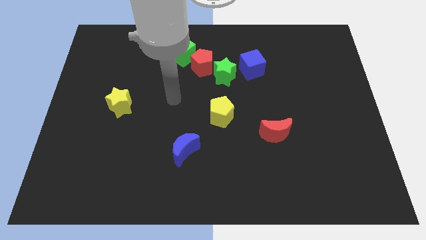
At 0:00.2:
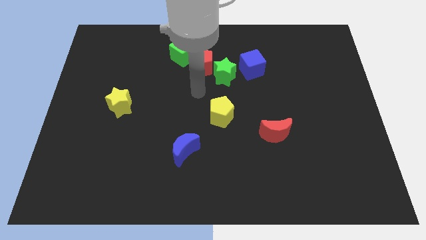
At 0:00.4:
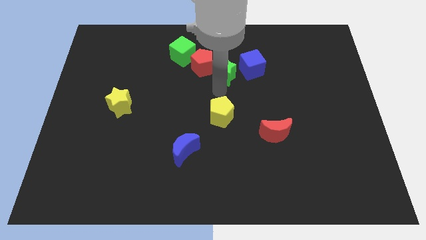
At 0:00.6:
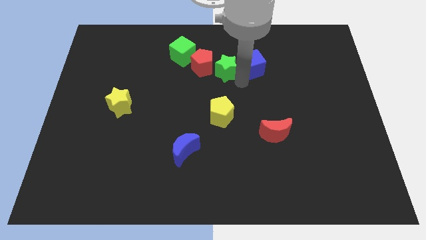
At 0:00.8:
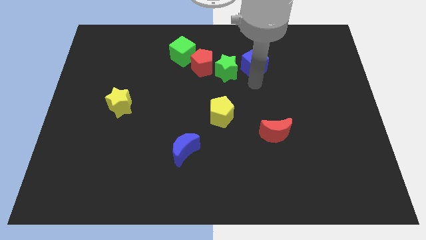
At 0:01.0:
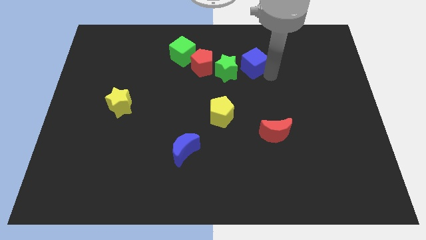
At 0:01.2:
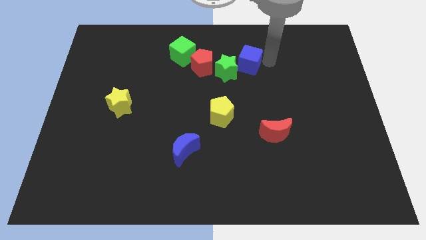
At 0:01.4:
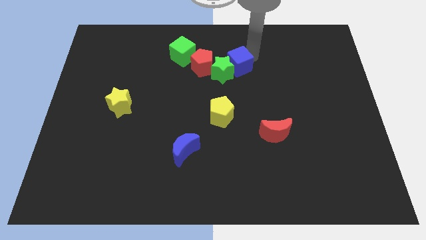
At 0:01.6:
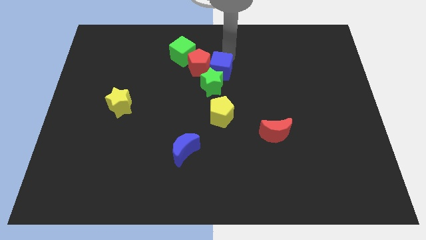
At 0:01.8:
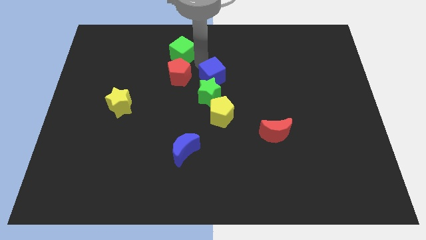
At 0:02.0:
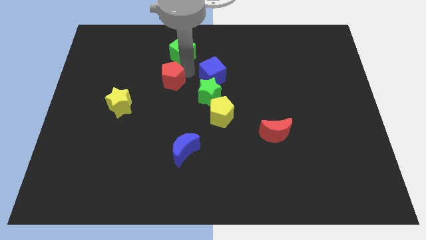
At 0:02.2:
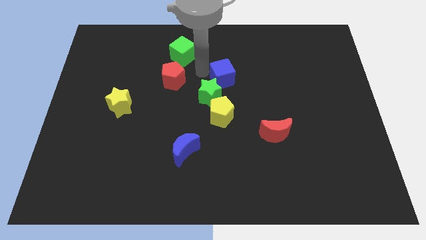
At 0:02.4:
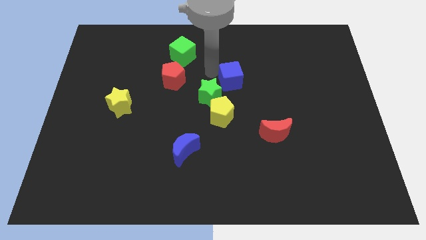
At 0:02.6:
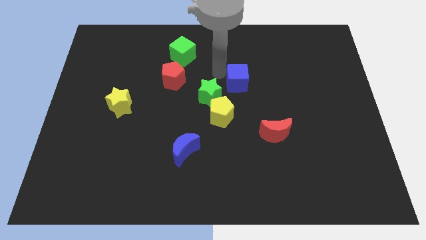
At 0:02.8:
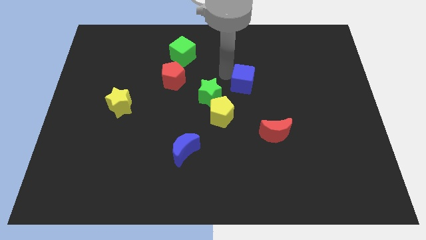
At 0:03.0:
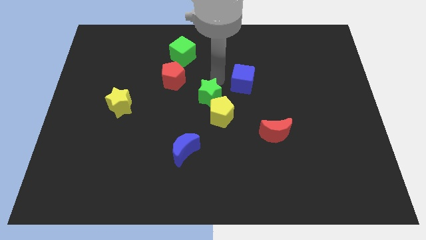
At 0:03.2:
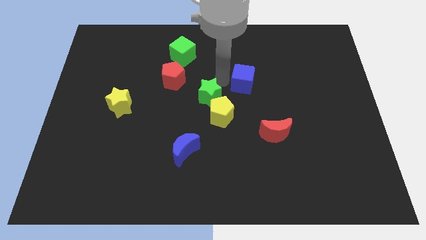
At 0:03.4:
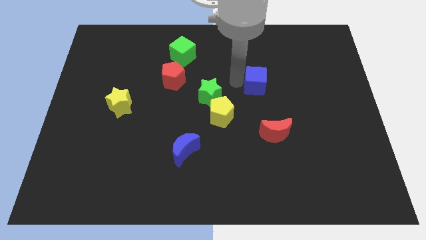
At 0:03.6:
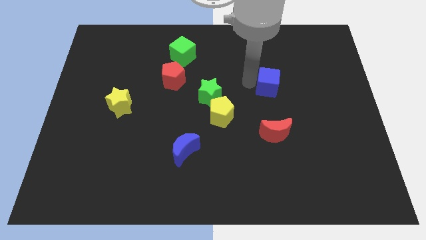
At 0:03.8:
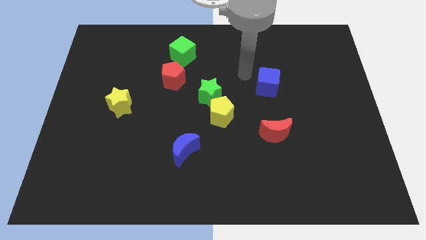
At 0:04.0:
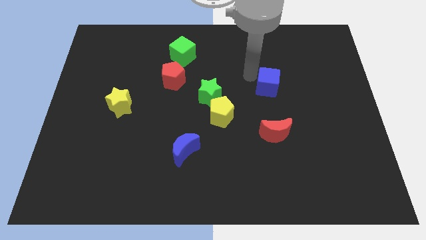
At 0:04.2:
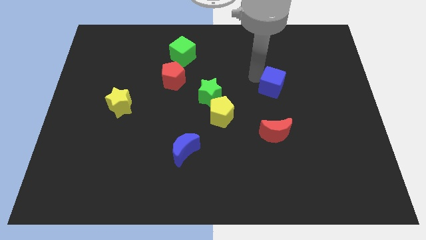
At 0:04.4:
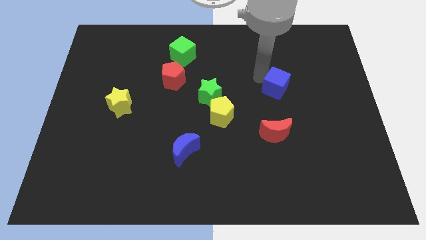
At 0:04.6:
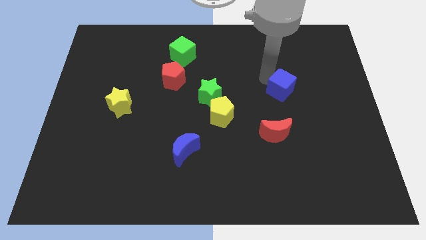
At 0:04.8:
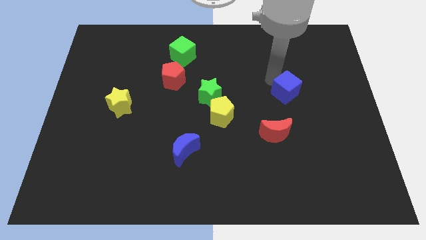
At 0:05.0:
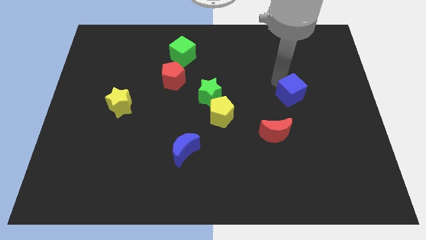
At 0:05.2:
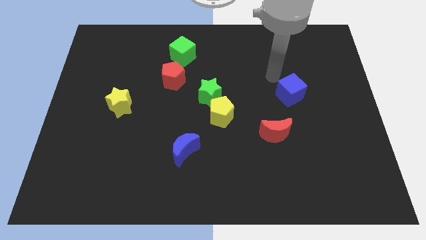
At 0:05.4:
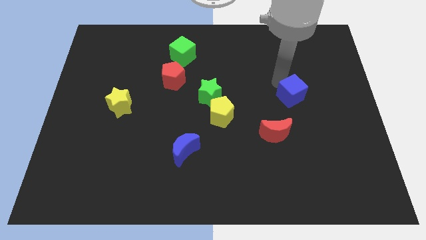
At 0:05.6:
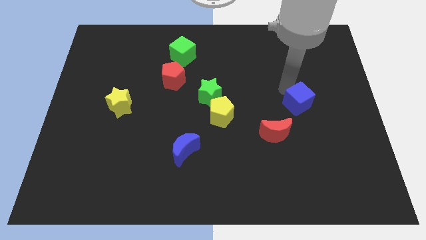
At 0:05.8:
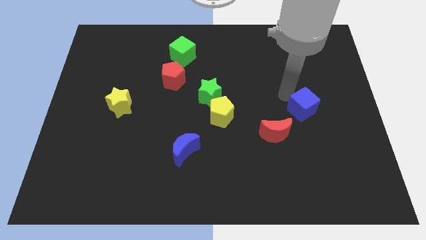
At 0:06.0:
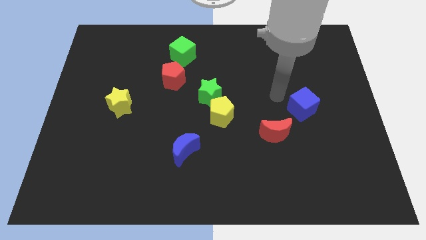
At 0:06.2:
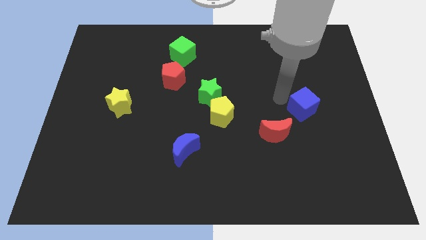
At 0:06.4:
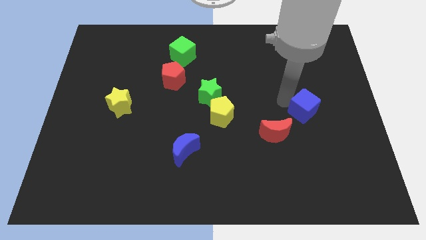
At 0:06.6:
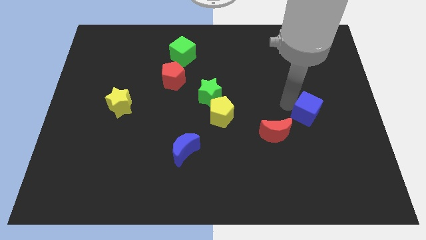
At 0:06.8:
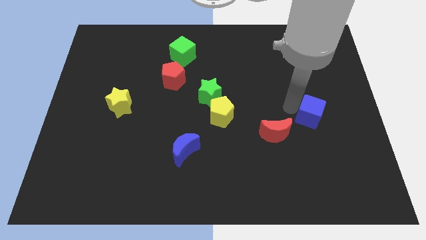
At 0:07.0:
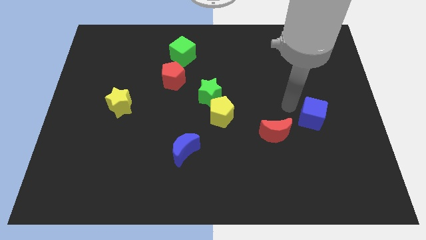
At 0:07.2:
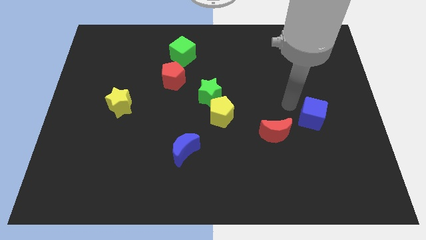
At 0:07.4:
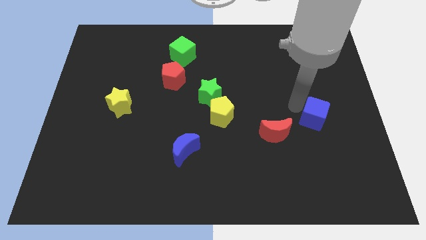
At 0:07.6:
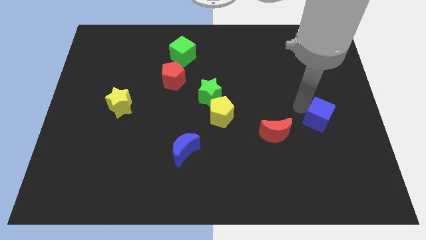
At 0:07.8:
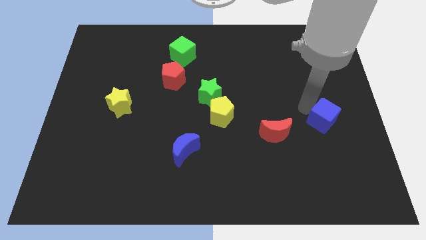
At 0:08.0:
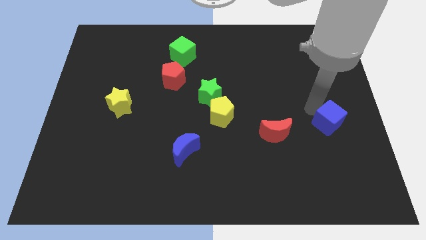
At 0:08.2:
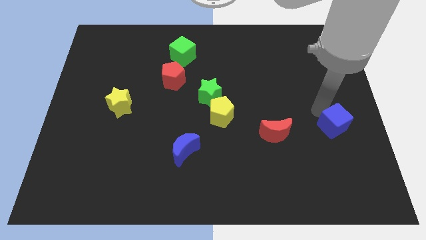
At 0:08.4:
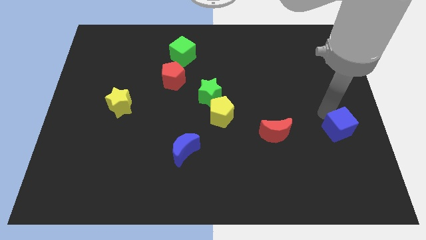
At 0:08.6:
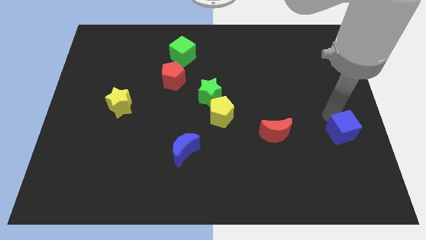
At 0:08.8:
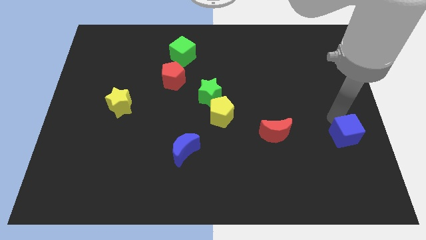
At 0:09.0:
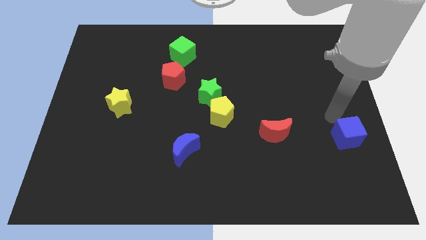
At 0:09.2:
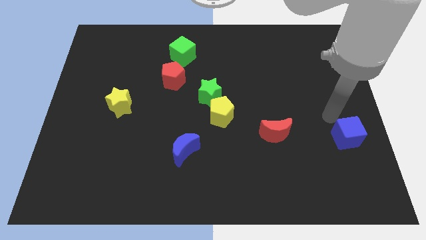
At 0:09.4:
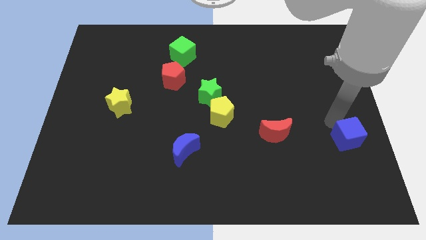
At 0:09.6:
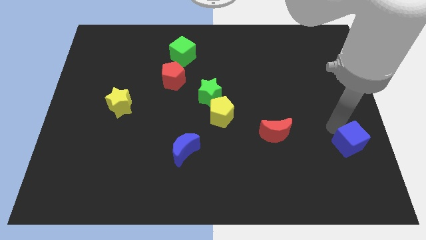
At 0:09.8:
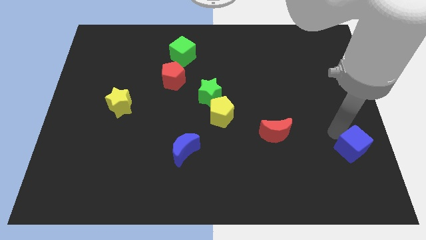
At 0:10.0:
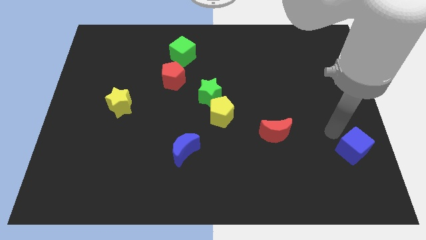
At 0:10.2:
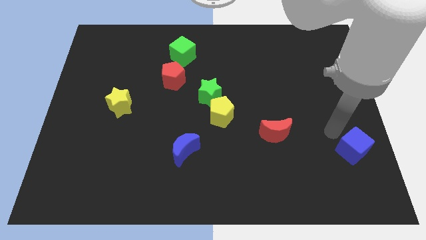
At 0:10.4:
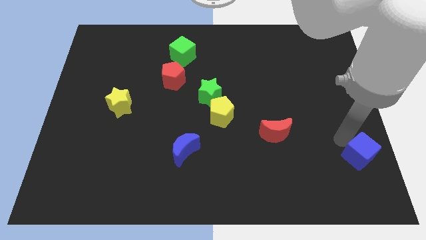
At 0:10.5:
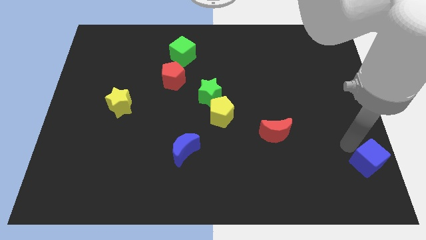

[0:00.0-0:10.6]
push the blue cube to the bottom right corner
